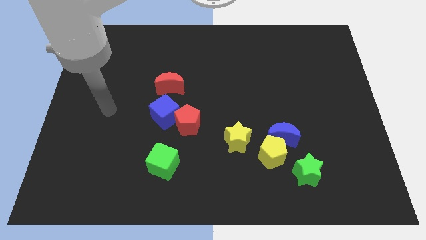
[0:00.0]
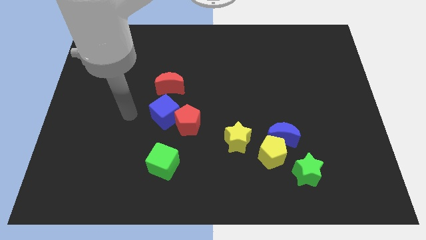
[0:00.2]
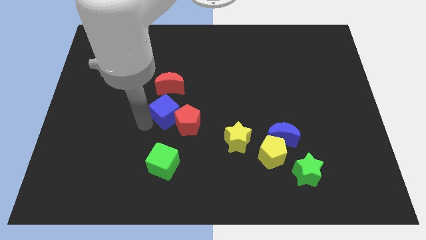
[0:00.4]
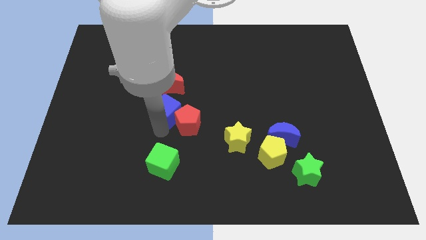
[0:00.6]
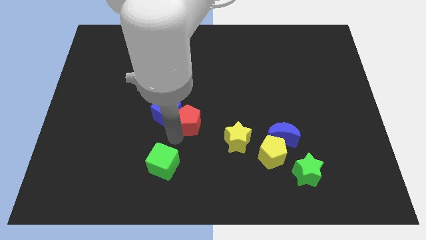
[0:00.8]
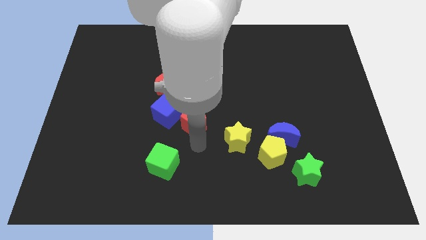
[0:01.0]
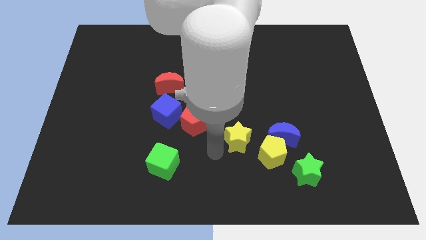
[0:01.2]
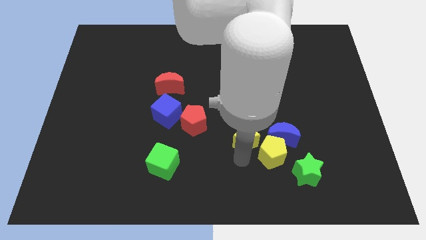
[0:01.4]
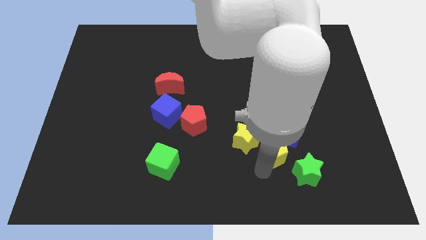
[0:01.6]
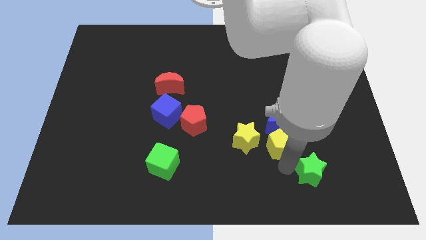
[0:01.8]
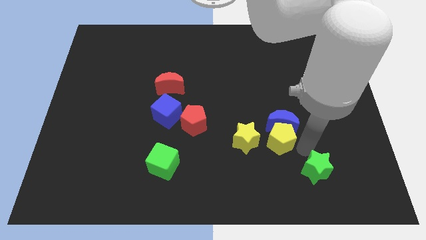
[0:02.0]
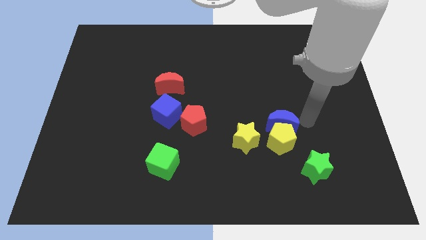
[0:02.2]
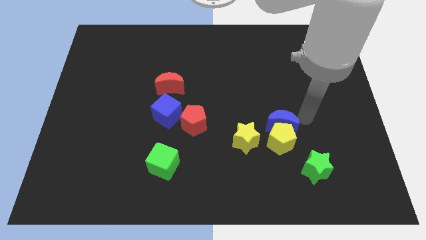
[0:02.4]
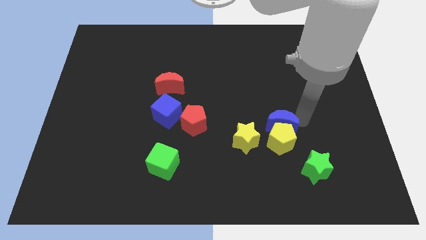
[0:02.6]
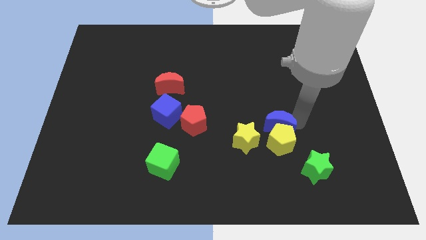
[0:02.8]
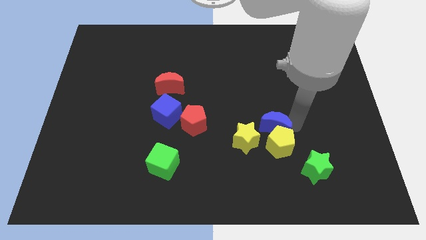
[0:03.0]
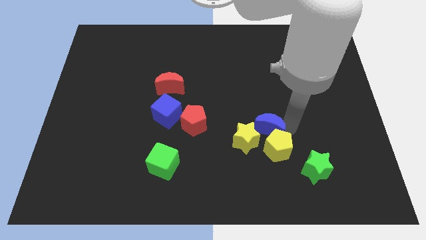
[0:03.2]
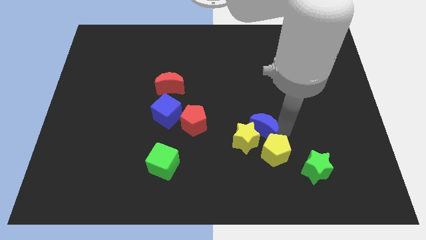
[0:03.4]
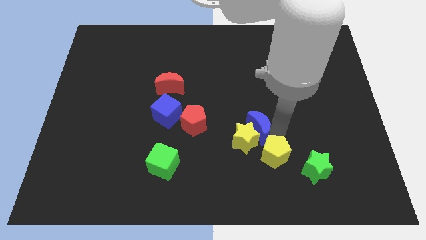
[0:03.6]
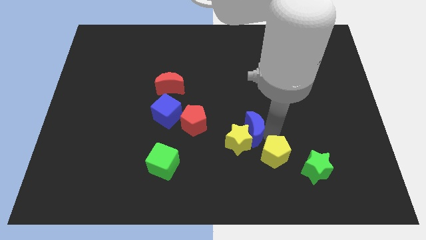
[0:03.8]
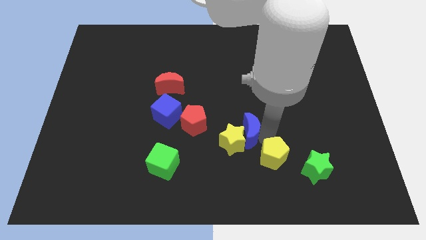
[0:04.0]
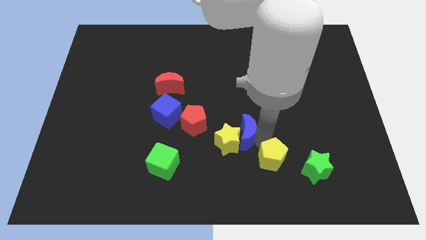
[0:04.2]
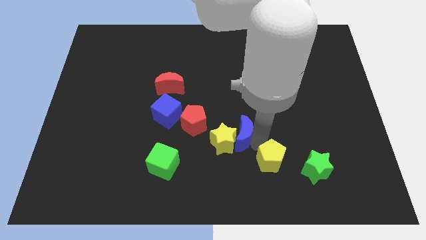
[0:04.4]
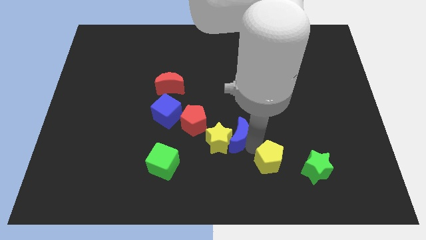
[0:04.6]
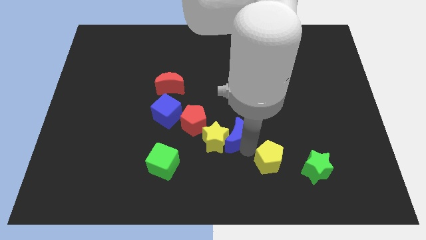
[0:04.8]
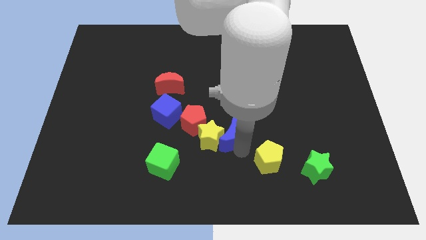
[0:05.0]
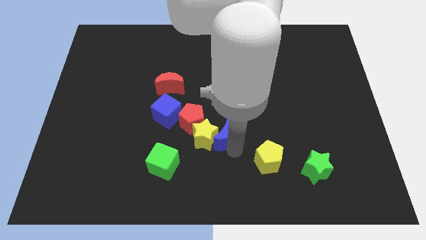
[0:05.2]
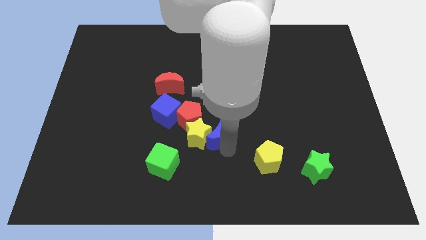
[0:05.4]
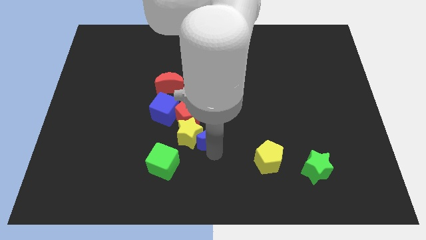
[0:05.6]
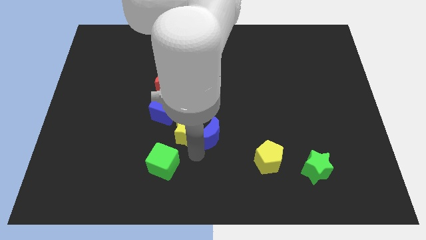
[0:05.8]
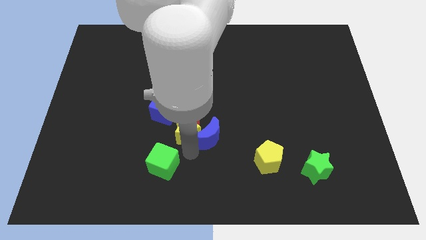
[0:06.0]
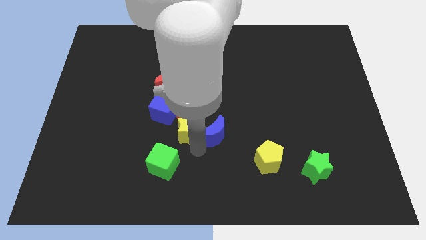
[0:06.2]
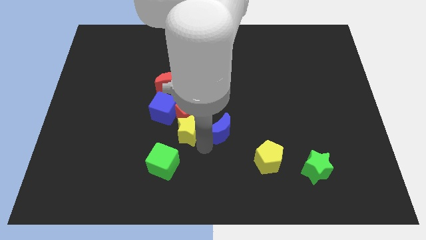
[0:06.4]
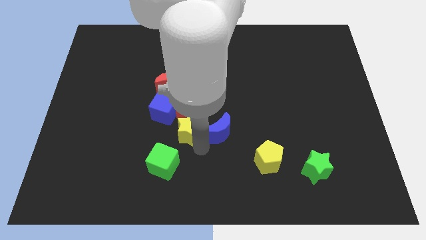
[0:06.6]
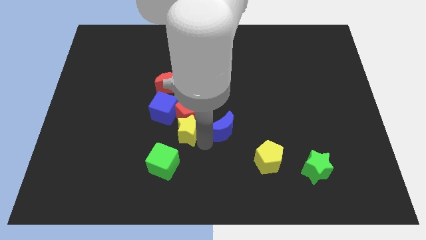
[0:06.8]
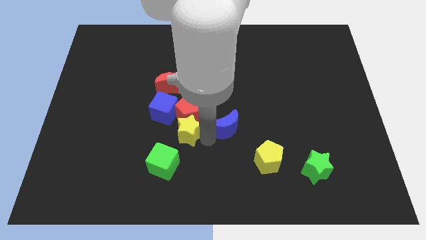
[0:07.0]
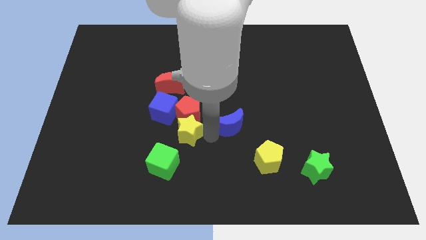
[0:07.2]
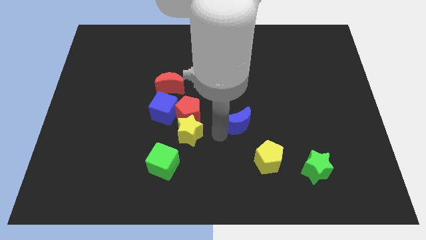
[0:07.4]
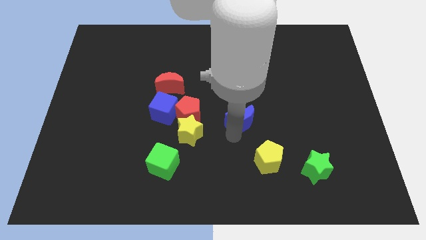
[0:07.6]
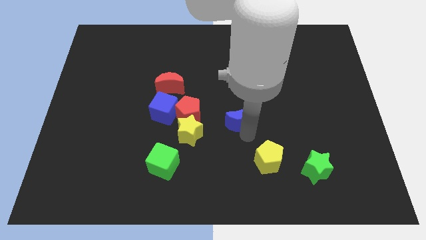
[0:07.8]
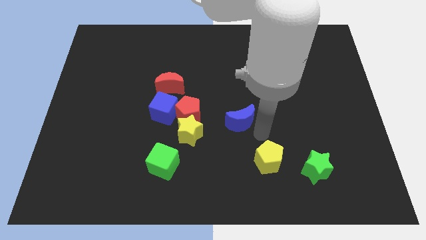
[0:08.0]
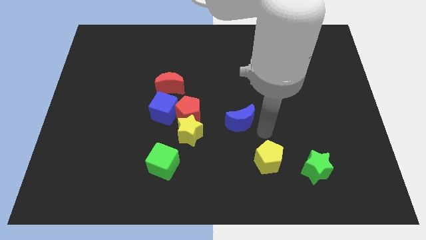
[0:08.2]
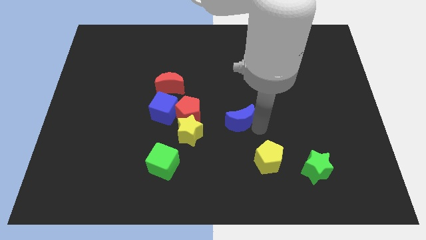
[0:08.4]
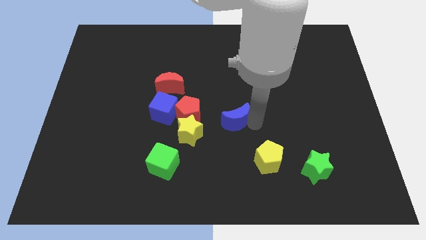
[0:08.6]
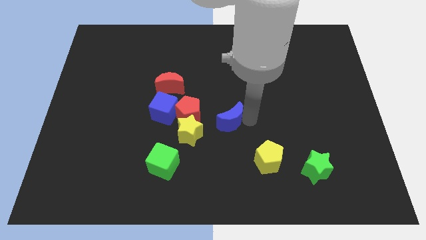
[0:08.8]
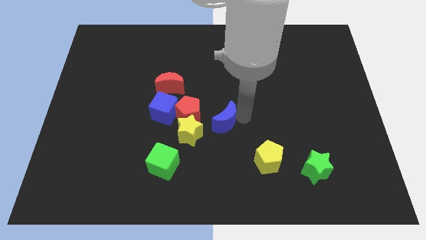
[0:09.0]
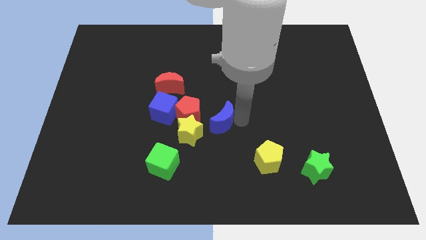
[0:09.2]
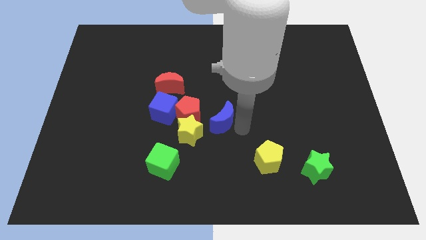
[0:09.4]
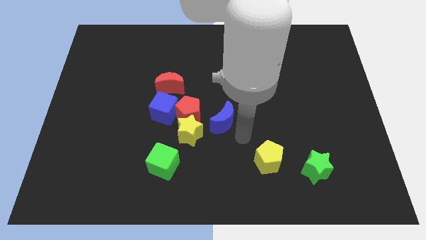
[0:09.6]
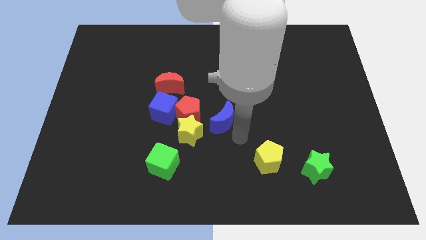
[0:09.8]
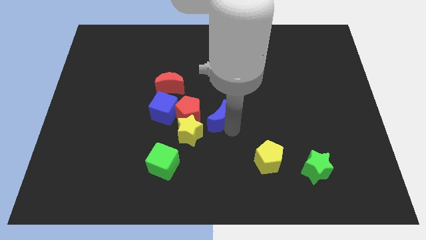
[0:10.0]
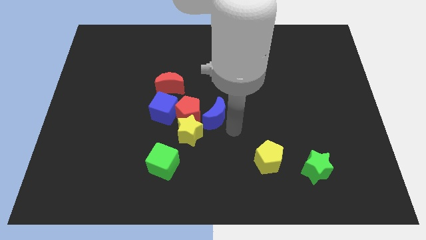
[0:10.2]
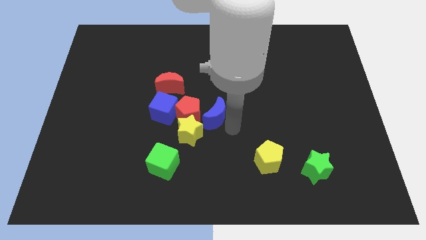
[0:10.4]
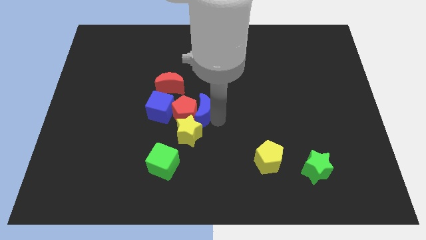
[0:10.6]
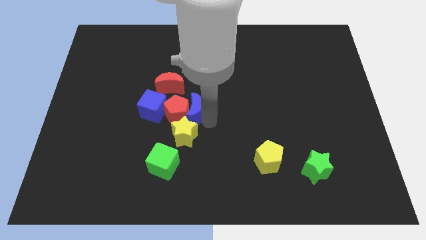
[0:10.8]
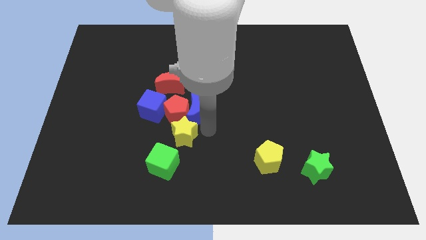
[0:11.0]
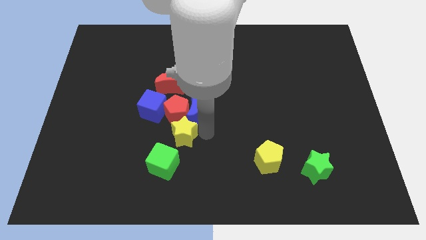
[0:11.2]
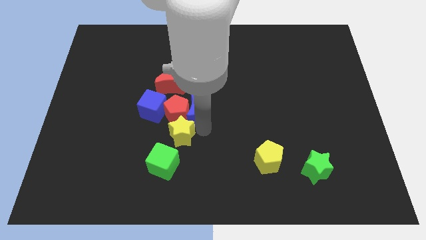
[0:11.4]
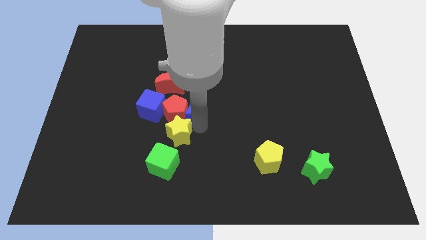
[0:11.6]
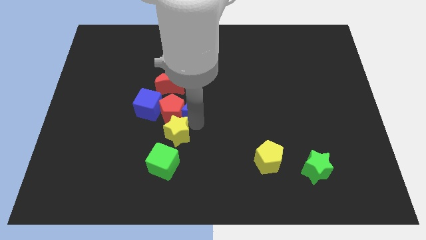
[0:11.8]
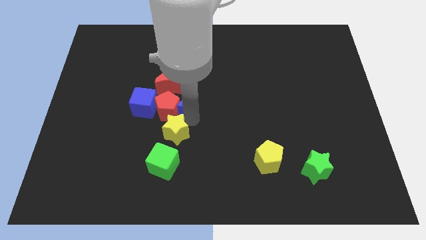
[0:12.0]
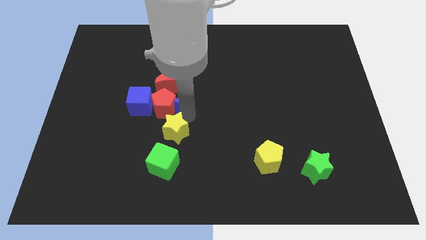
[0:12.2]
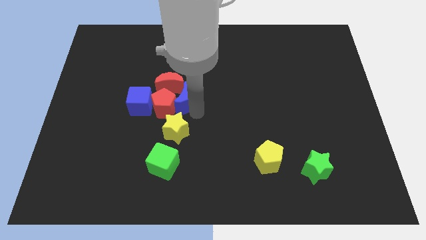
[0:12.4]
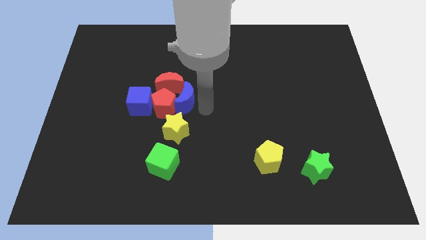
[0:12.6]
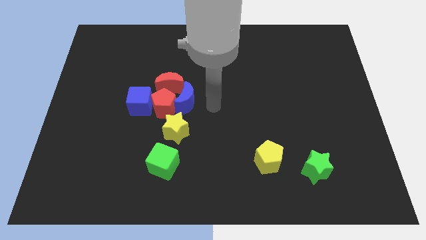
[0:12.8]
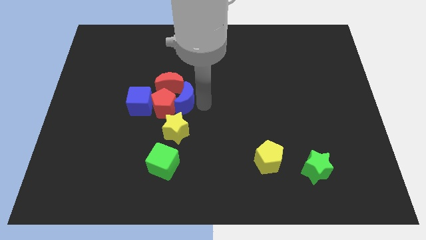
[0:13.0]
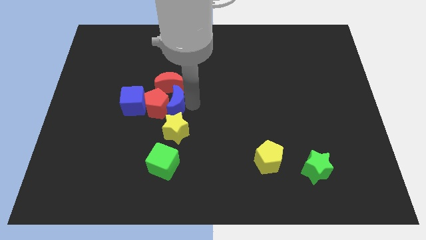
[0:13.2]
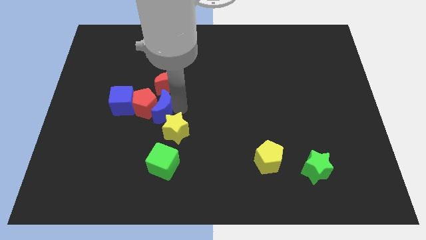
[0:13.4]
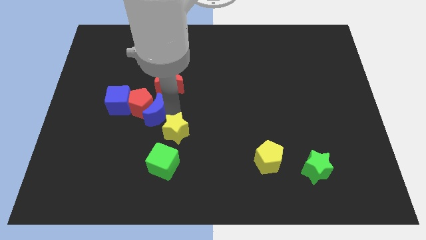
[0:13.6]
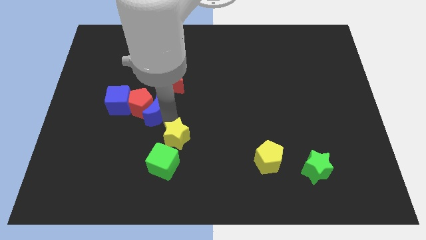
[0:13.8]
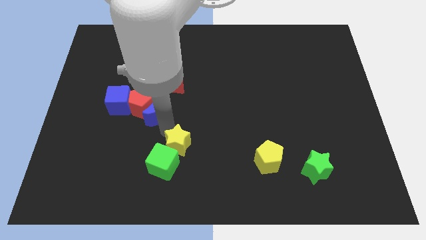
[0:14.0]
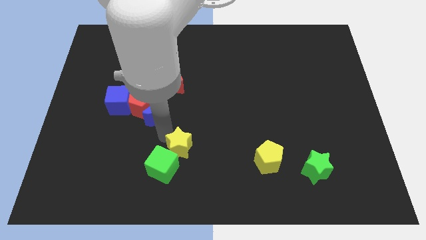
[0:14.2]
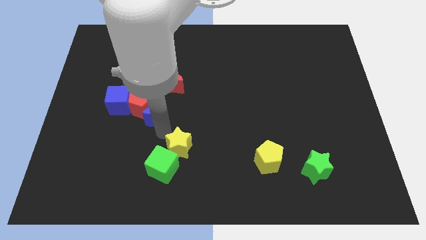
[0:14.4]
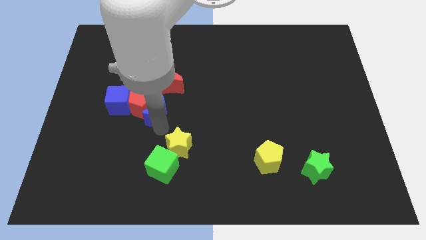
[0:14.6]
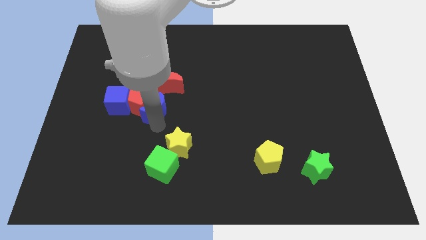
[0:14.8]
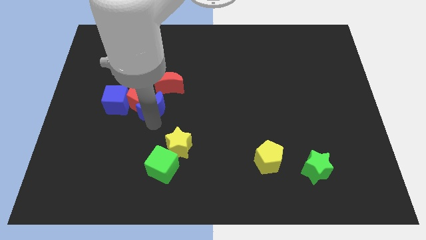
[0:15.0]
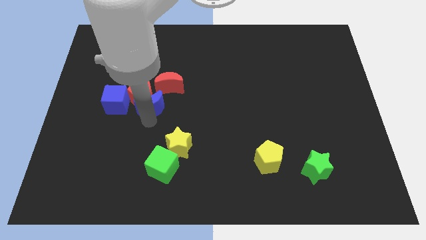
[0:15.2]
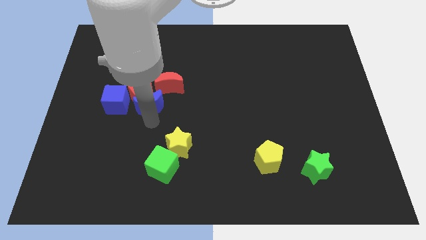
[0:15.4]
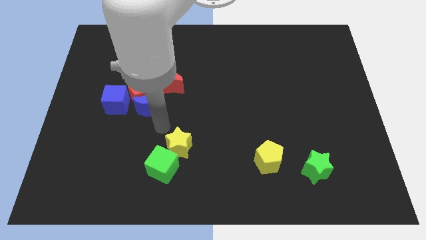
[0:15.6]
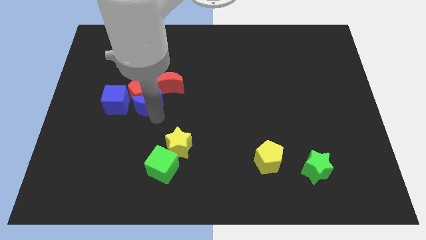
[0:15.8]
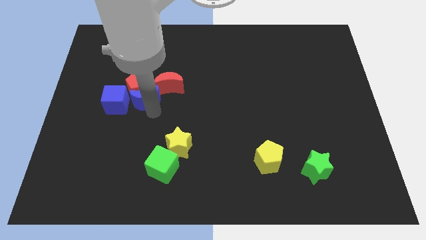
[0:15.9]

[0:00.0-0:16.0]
push the blue moon left of the red moon
